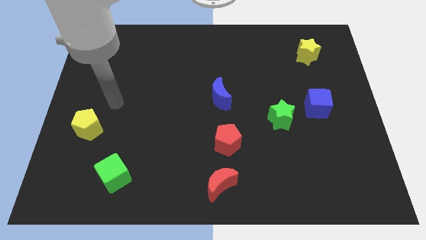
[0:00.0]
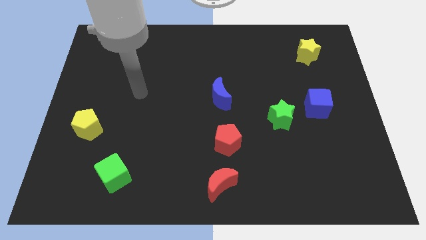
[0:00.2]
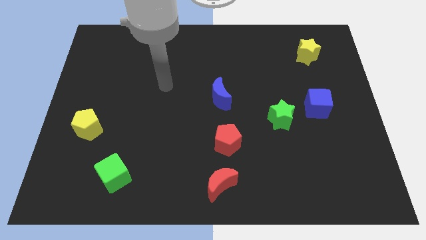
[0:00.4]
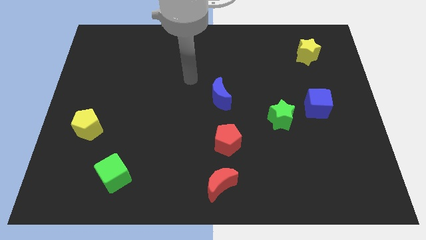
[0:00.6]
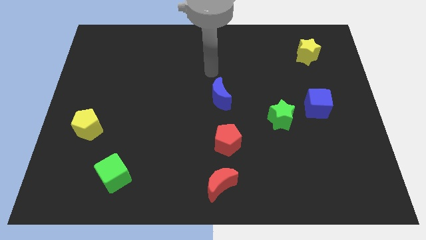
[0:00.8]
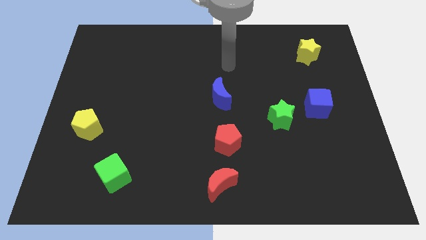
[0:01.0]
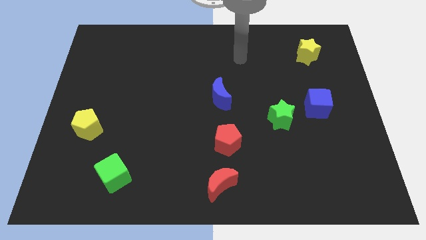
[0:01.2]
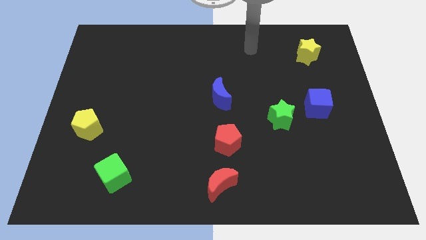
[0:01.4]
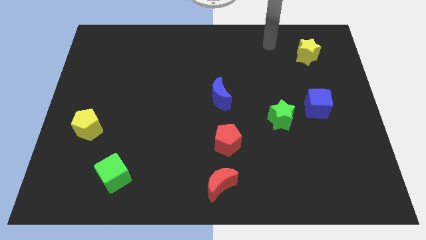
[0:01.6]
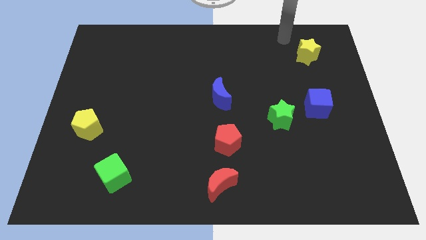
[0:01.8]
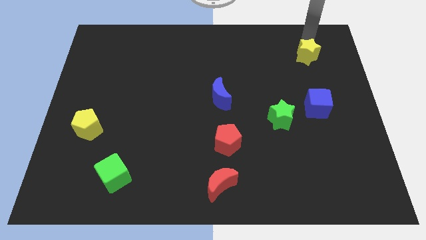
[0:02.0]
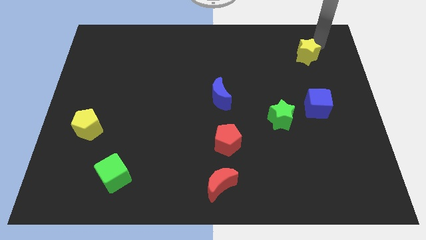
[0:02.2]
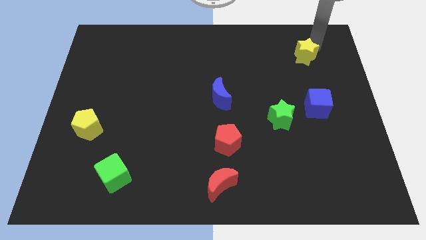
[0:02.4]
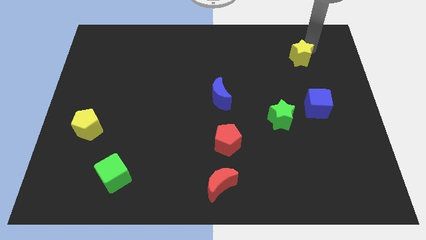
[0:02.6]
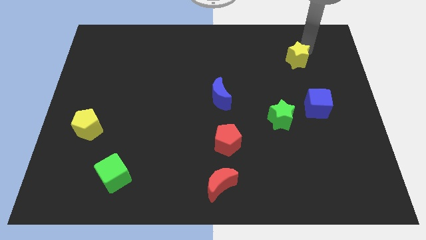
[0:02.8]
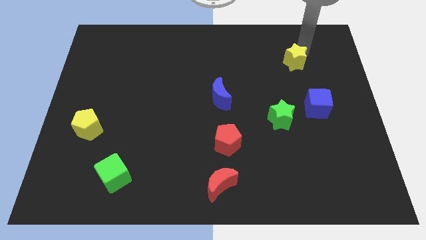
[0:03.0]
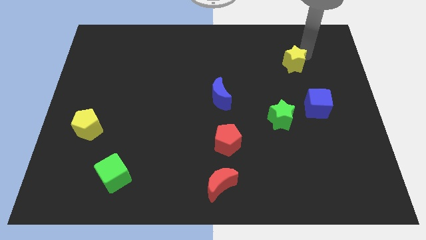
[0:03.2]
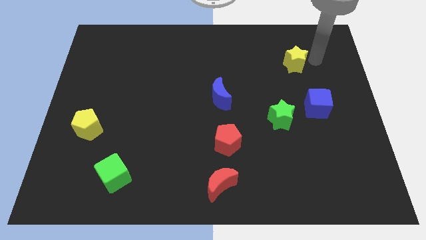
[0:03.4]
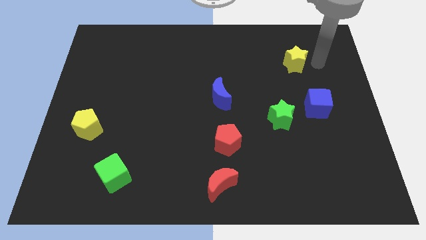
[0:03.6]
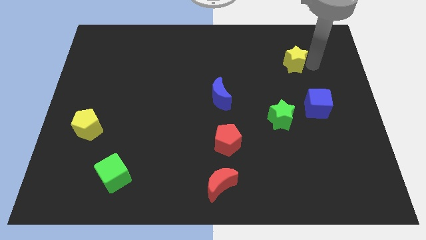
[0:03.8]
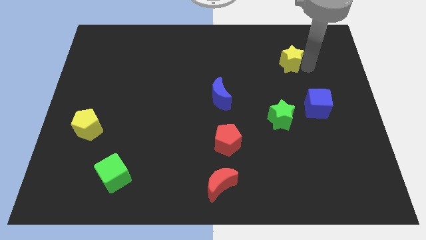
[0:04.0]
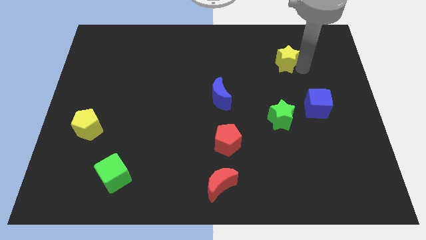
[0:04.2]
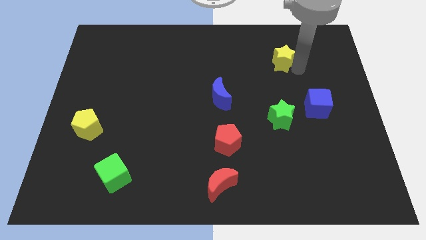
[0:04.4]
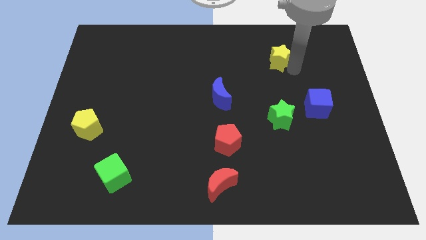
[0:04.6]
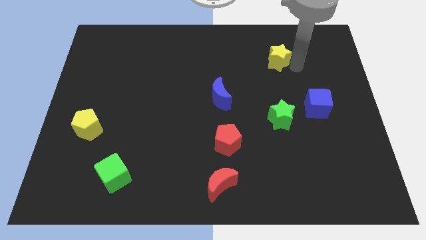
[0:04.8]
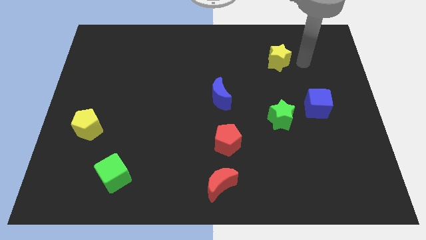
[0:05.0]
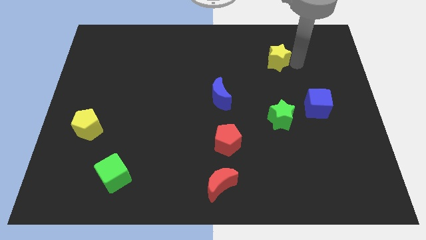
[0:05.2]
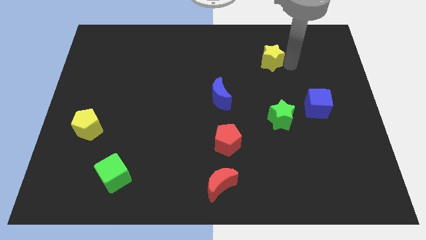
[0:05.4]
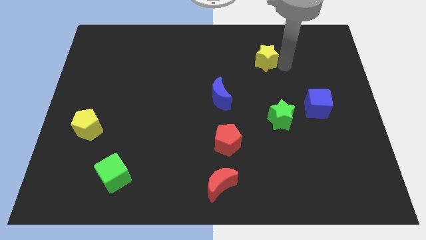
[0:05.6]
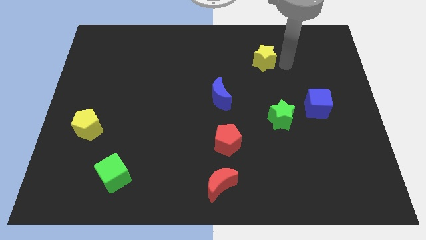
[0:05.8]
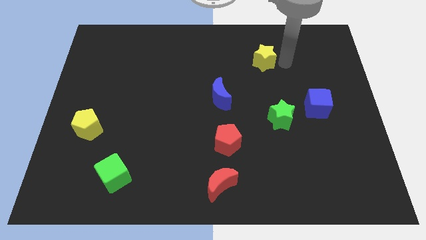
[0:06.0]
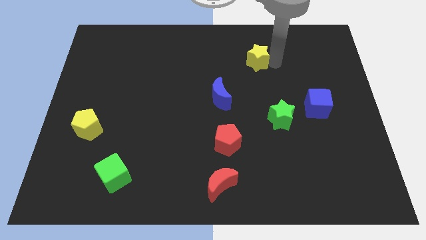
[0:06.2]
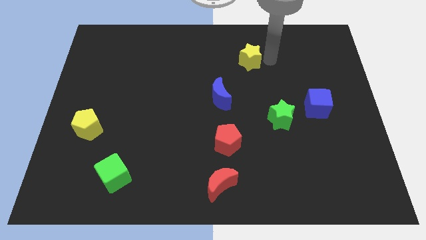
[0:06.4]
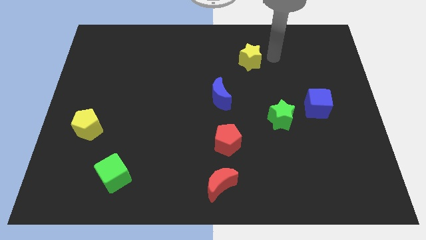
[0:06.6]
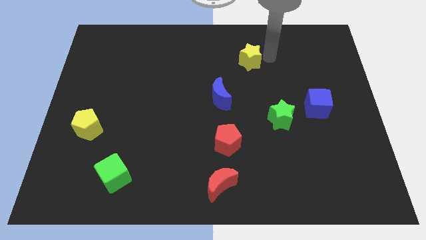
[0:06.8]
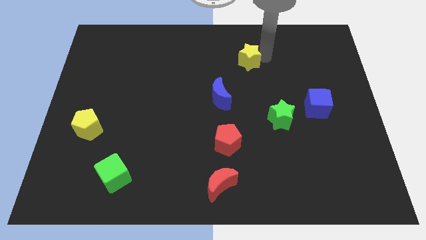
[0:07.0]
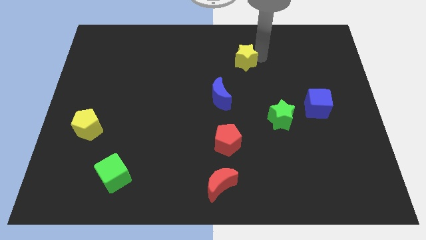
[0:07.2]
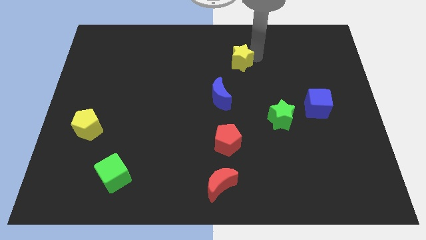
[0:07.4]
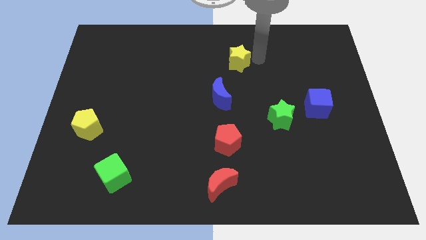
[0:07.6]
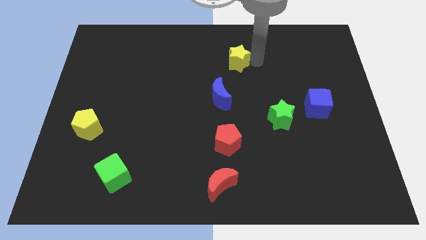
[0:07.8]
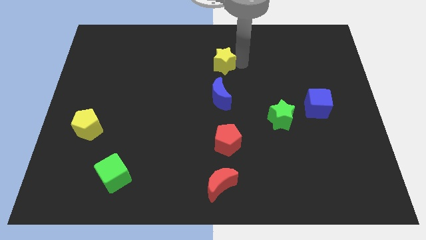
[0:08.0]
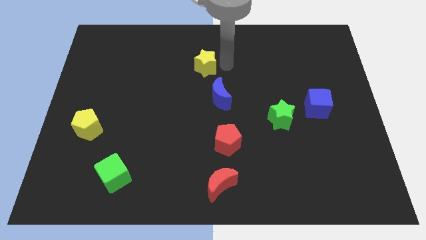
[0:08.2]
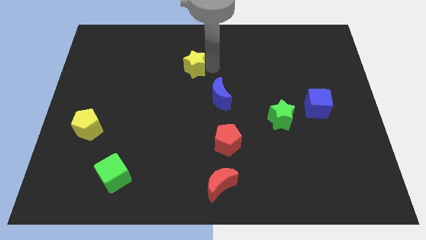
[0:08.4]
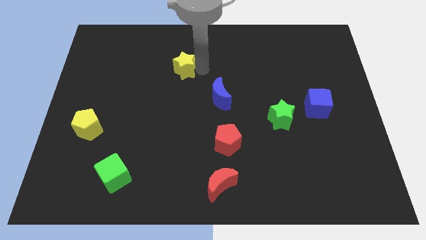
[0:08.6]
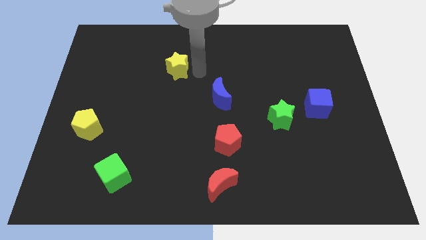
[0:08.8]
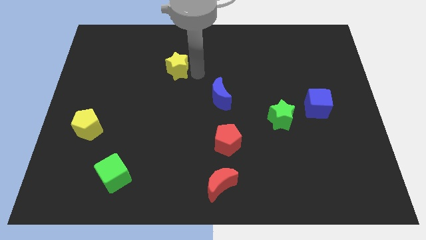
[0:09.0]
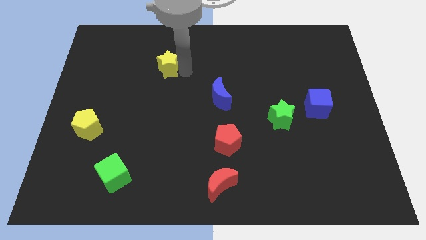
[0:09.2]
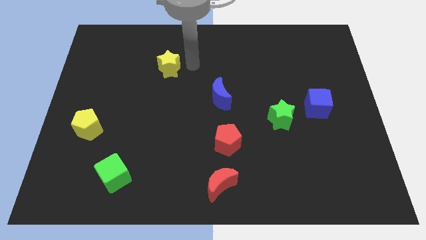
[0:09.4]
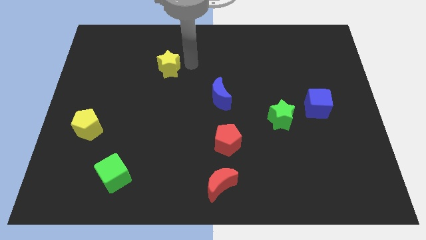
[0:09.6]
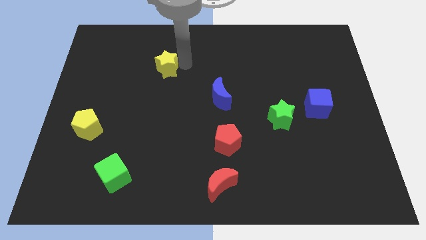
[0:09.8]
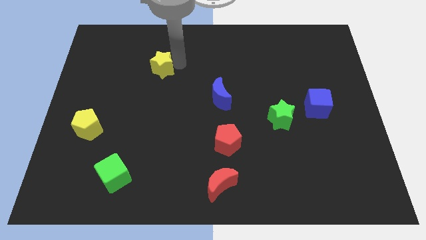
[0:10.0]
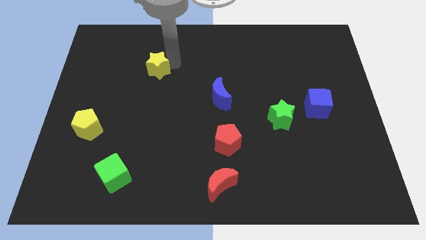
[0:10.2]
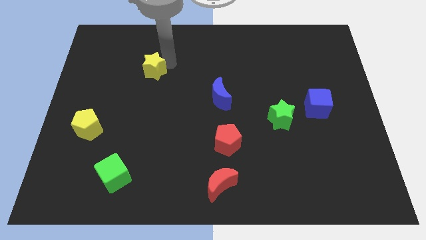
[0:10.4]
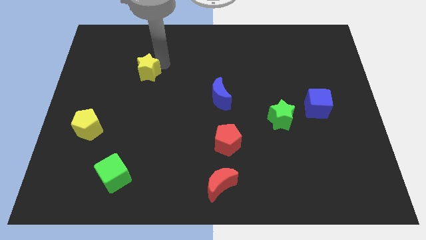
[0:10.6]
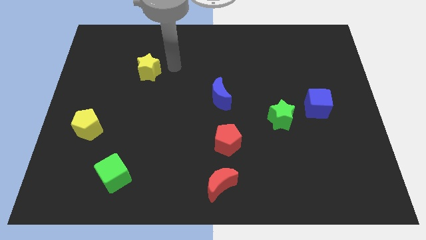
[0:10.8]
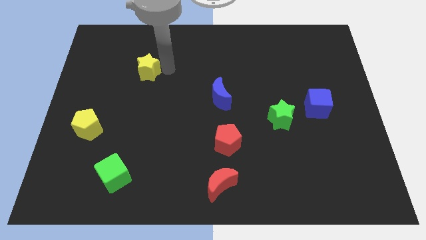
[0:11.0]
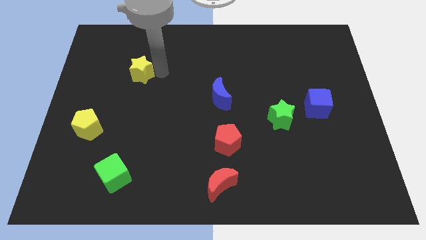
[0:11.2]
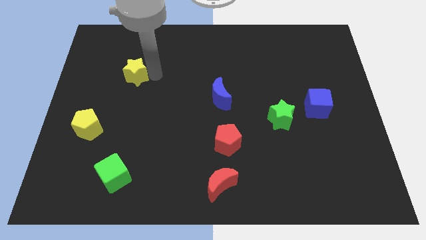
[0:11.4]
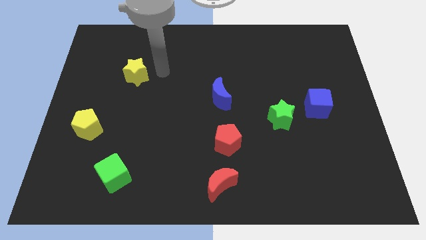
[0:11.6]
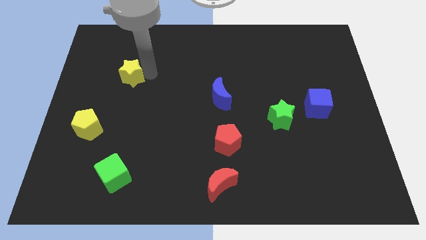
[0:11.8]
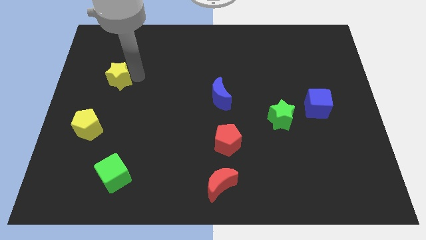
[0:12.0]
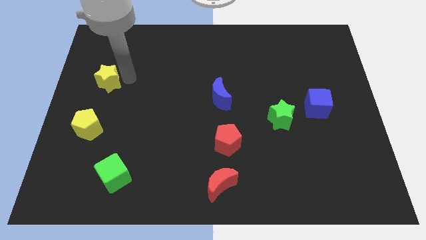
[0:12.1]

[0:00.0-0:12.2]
push the yellow star to the left side
